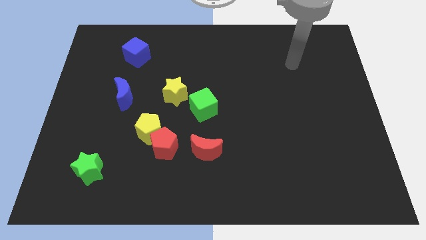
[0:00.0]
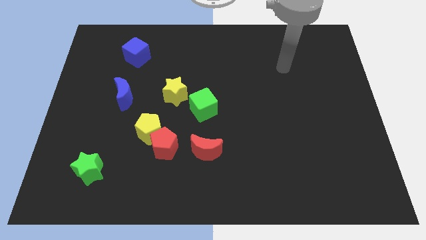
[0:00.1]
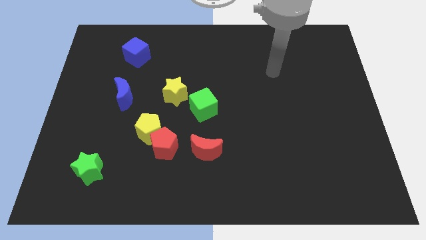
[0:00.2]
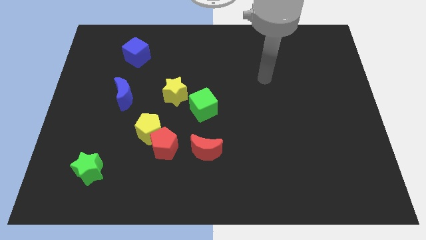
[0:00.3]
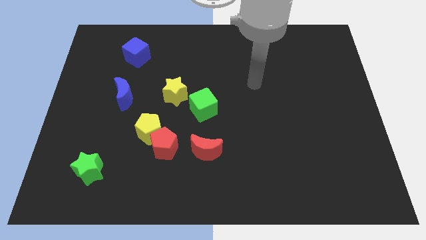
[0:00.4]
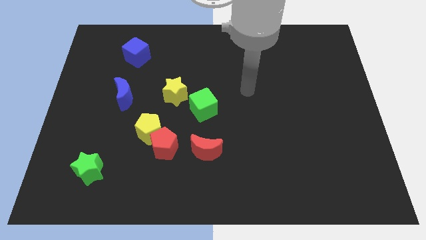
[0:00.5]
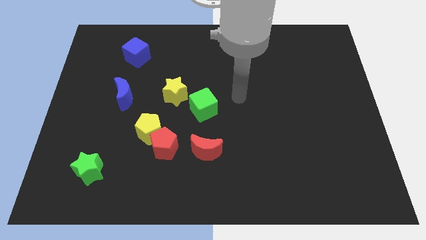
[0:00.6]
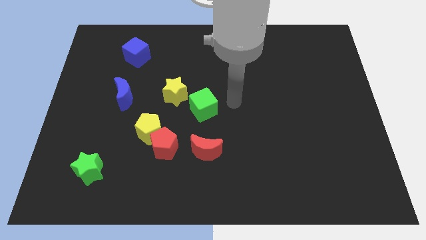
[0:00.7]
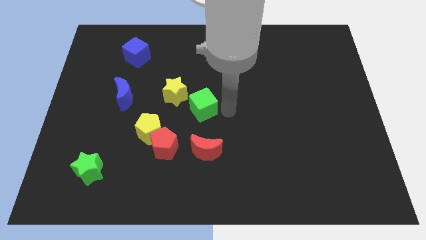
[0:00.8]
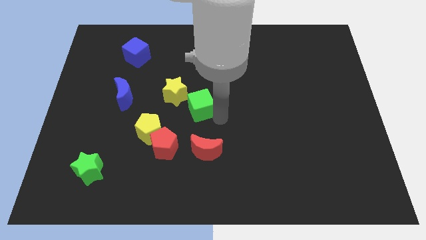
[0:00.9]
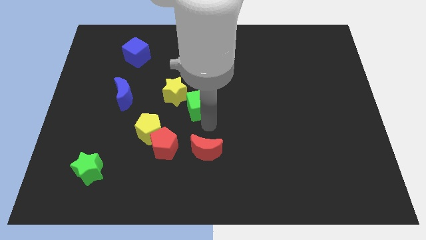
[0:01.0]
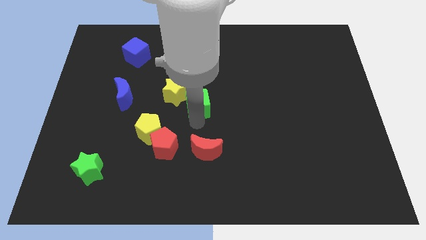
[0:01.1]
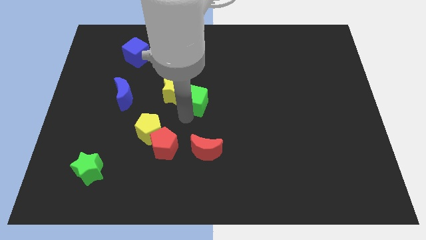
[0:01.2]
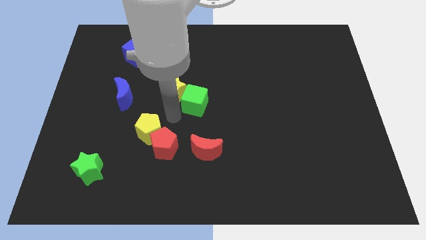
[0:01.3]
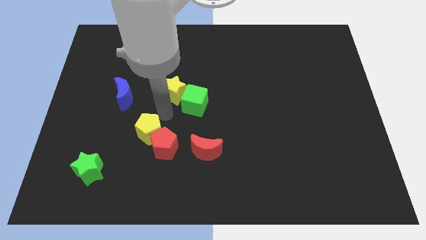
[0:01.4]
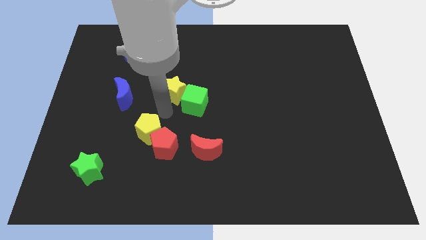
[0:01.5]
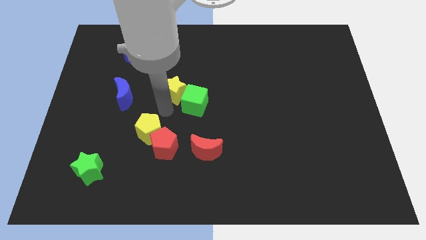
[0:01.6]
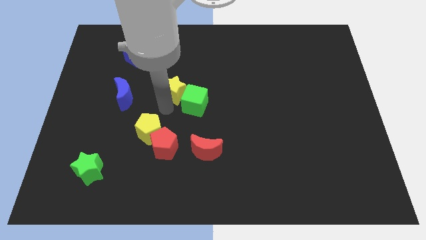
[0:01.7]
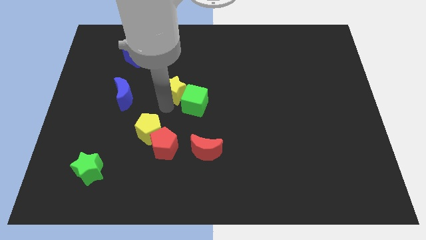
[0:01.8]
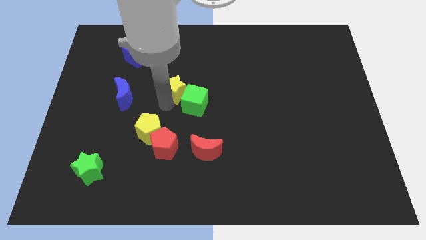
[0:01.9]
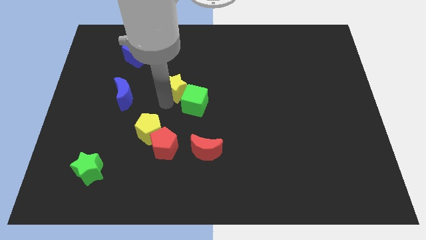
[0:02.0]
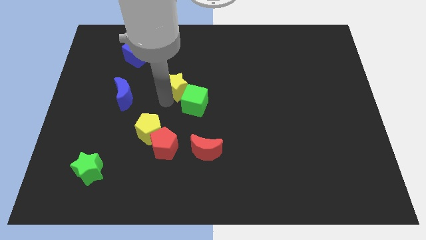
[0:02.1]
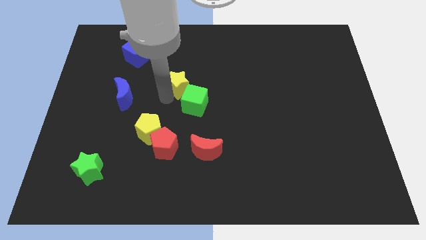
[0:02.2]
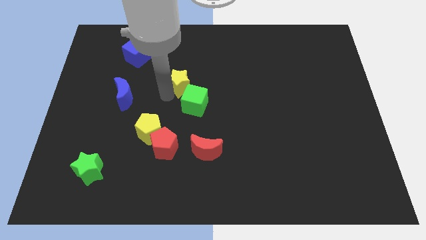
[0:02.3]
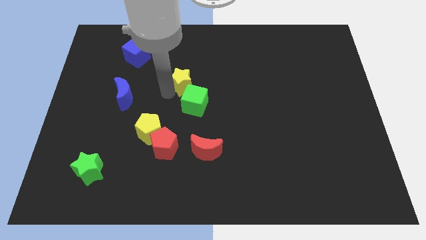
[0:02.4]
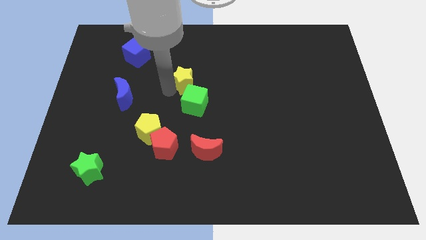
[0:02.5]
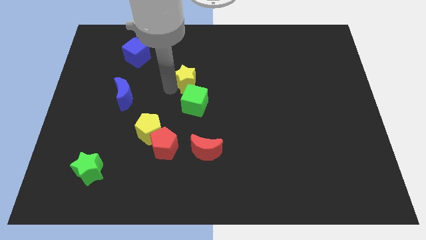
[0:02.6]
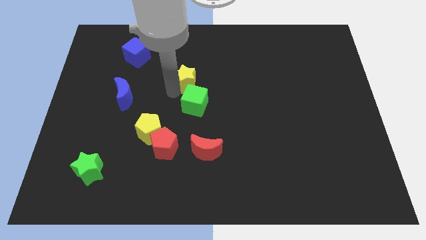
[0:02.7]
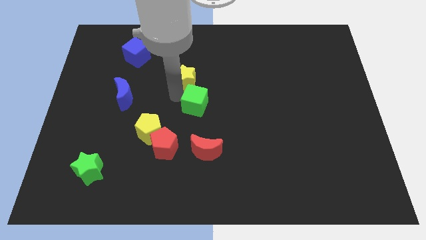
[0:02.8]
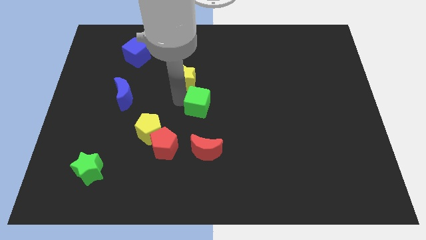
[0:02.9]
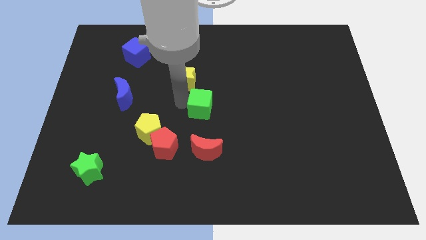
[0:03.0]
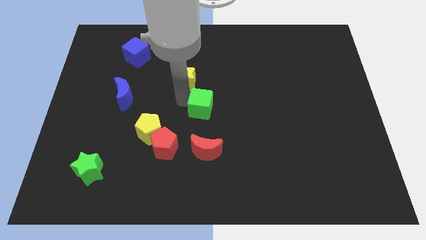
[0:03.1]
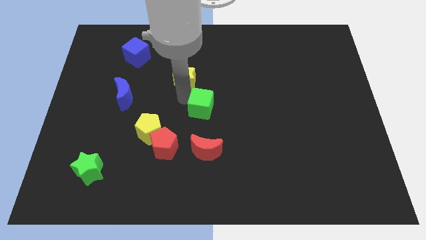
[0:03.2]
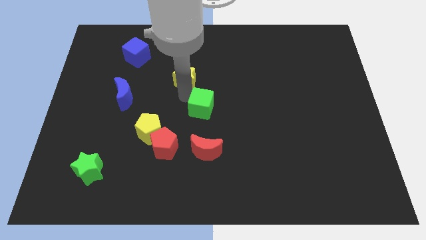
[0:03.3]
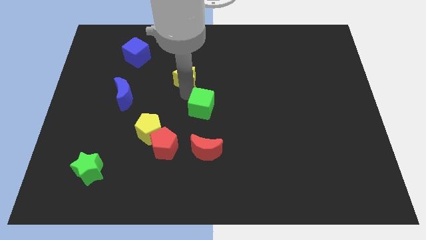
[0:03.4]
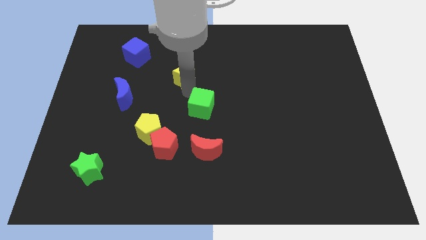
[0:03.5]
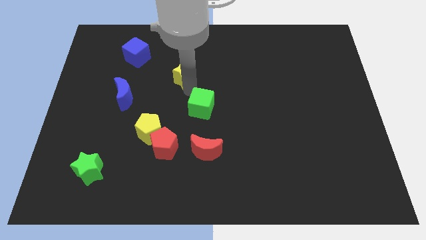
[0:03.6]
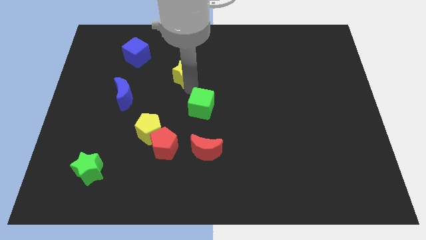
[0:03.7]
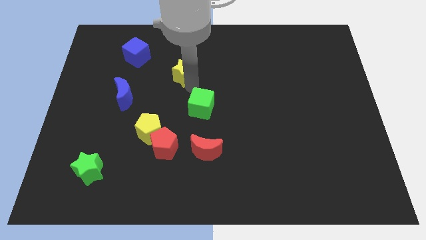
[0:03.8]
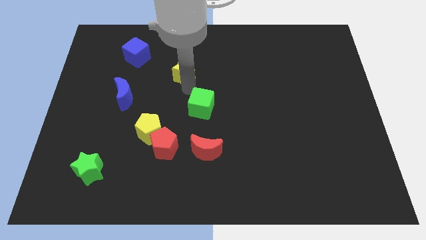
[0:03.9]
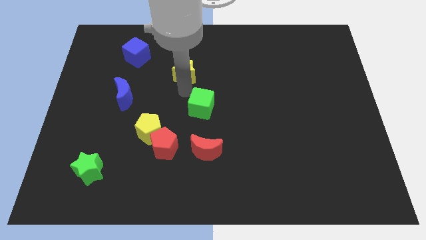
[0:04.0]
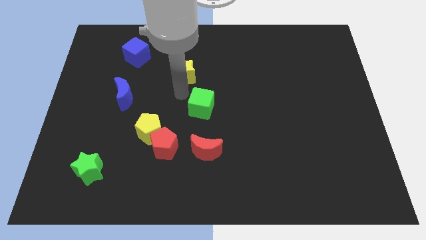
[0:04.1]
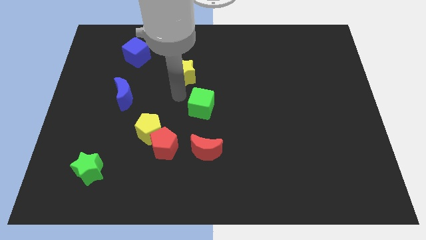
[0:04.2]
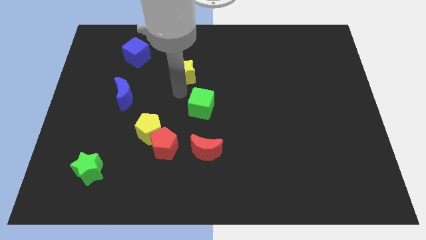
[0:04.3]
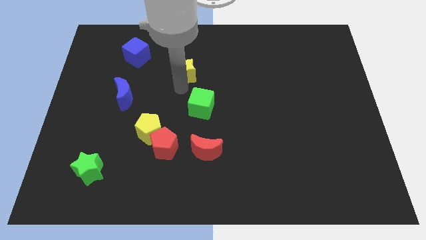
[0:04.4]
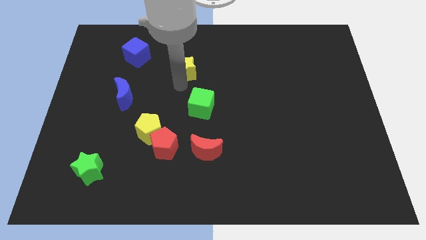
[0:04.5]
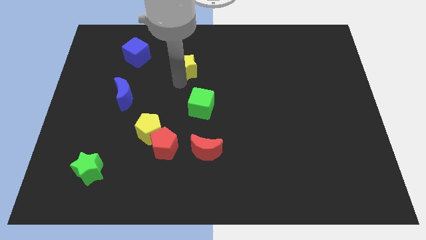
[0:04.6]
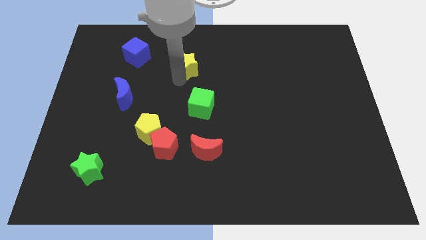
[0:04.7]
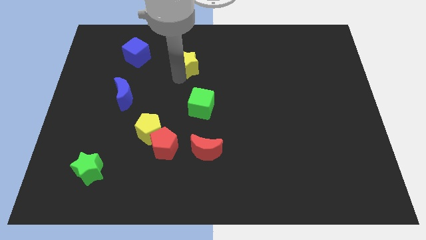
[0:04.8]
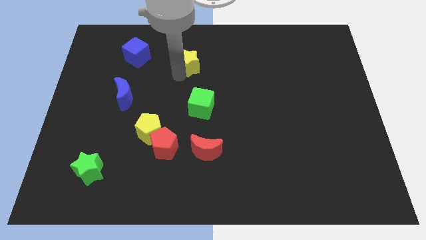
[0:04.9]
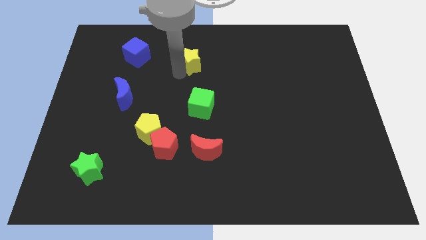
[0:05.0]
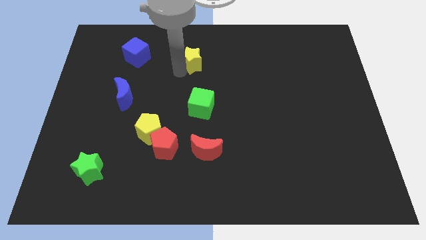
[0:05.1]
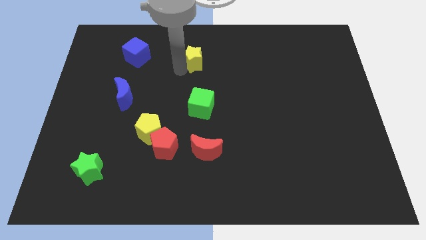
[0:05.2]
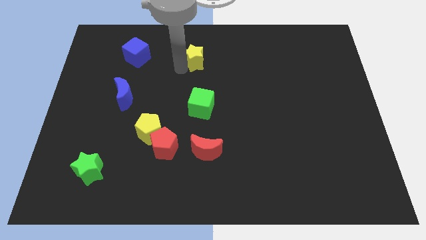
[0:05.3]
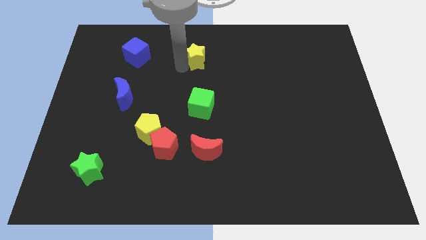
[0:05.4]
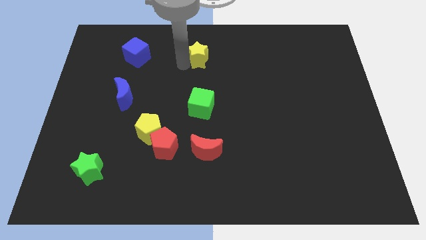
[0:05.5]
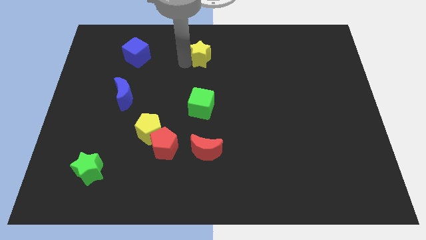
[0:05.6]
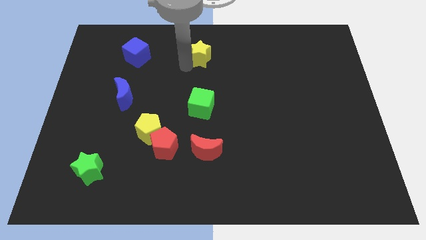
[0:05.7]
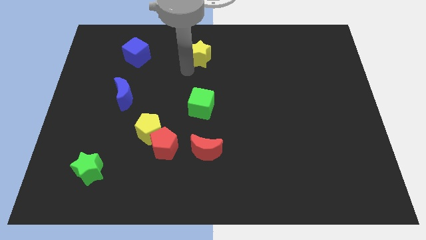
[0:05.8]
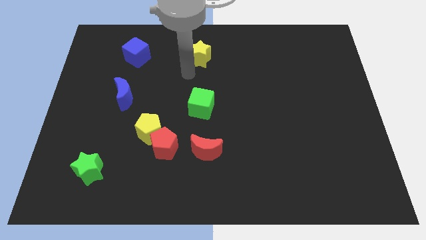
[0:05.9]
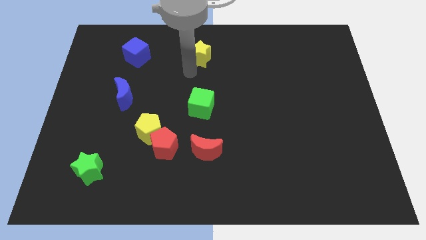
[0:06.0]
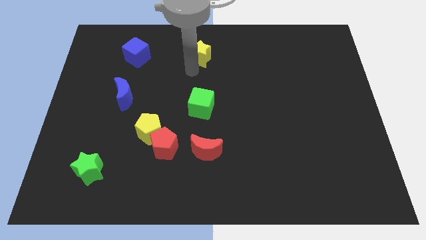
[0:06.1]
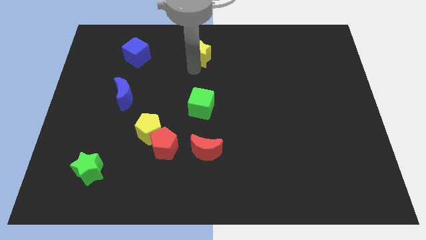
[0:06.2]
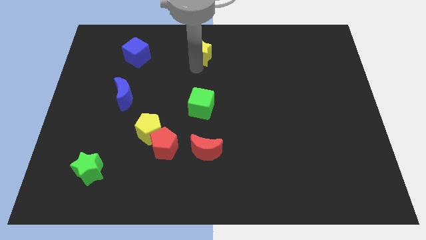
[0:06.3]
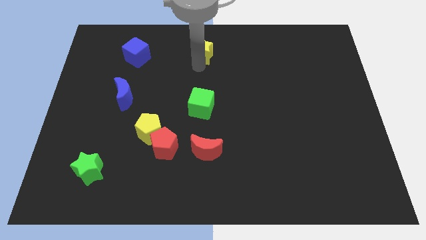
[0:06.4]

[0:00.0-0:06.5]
slide the yellow star to the top
